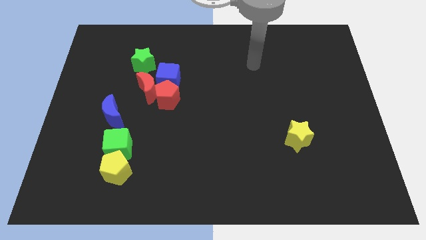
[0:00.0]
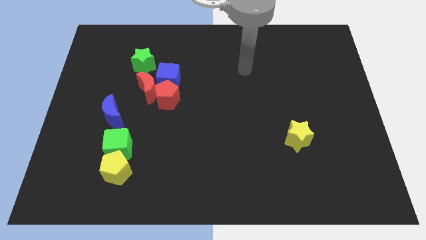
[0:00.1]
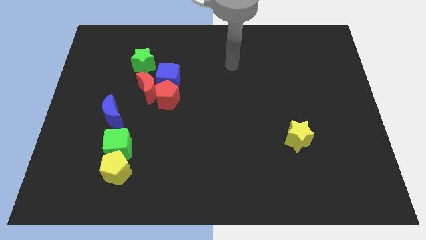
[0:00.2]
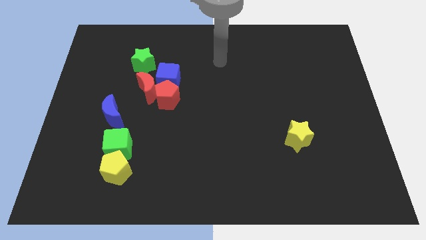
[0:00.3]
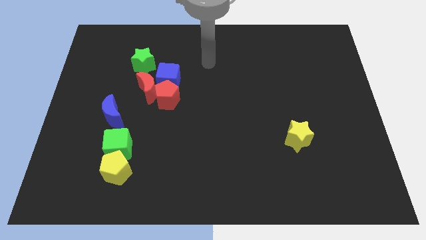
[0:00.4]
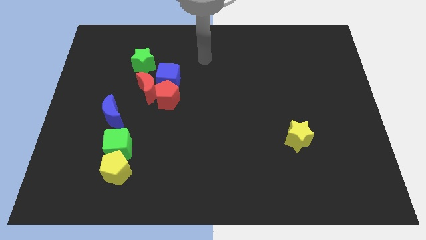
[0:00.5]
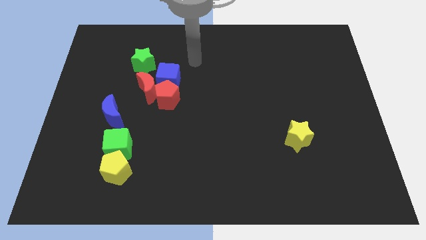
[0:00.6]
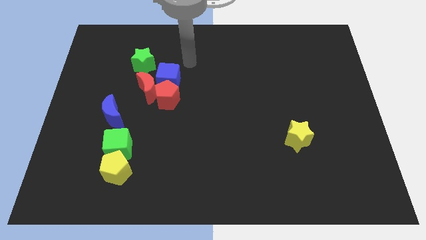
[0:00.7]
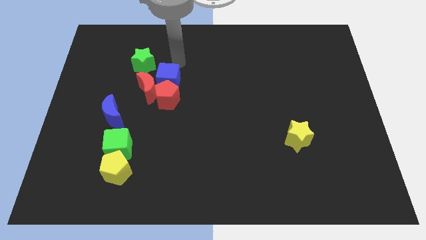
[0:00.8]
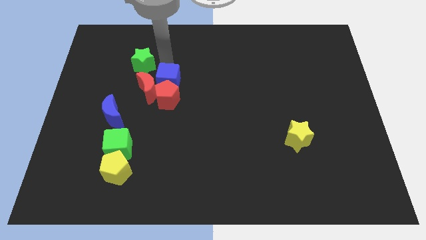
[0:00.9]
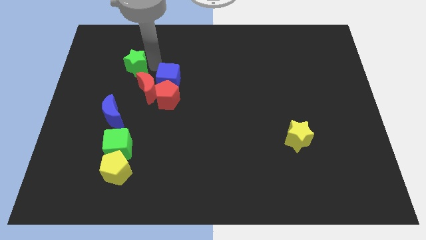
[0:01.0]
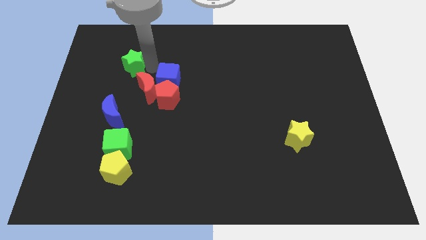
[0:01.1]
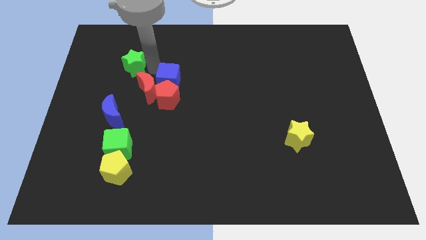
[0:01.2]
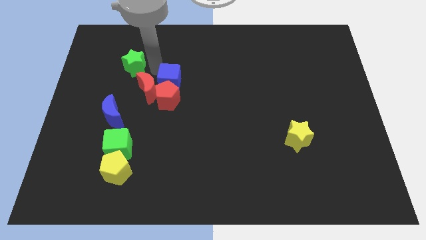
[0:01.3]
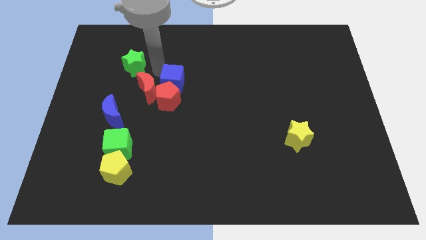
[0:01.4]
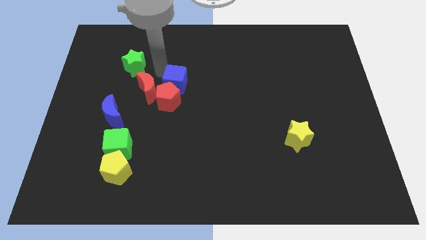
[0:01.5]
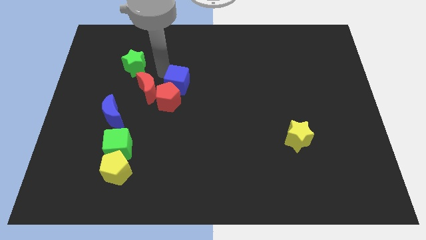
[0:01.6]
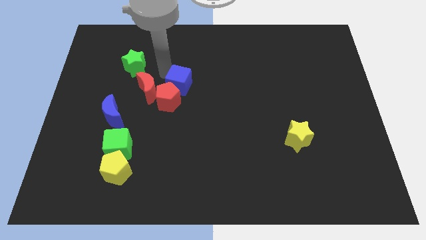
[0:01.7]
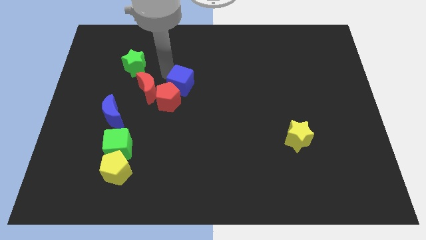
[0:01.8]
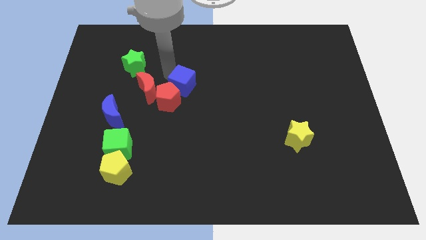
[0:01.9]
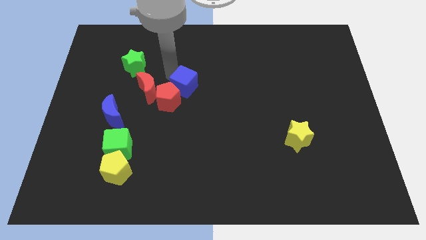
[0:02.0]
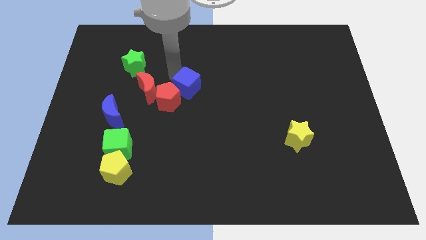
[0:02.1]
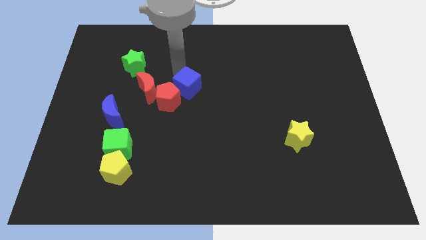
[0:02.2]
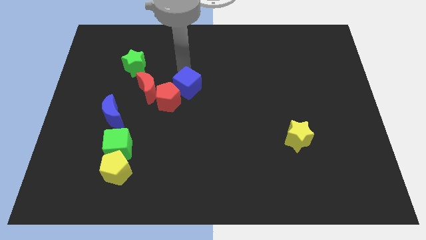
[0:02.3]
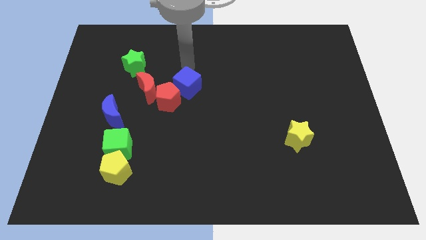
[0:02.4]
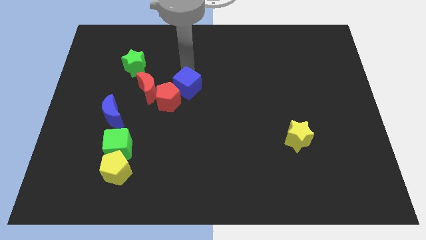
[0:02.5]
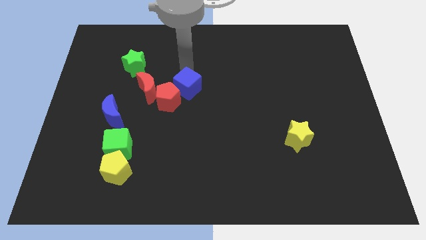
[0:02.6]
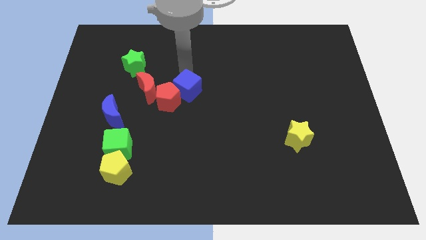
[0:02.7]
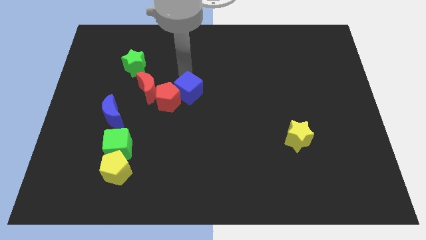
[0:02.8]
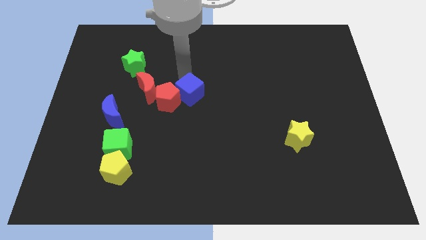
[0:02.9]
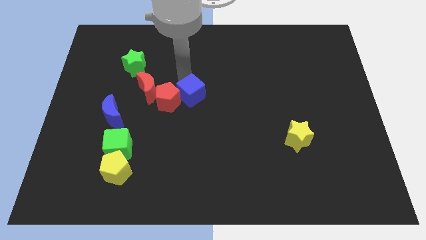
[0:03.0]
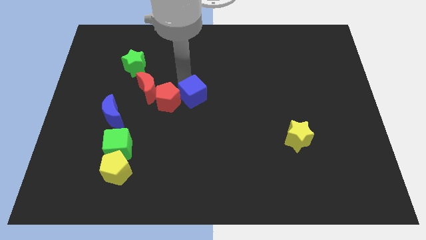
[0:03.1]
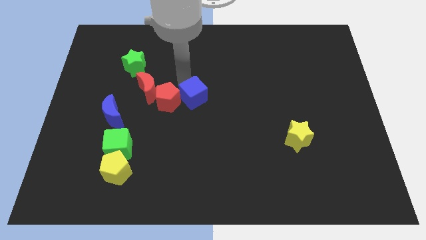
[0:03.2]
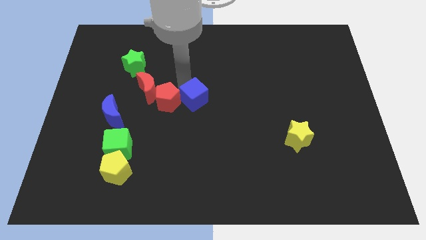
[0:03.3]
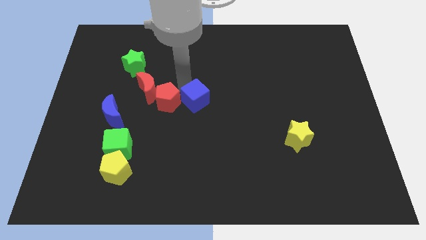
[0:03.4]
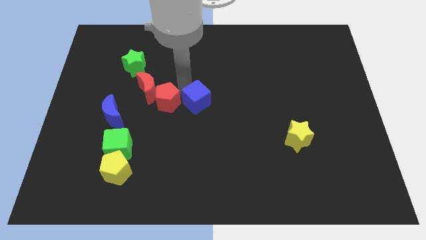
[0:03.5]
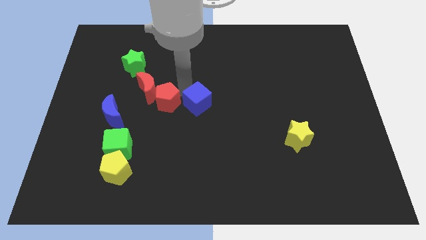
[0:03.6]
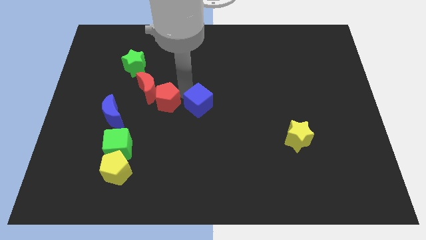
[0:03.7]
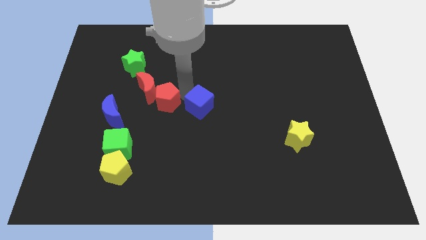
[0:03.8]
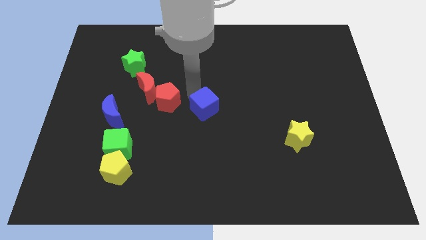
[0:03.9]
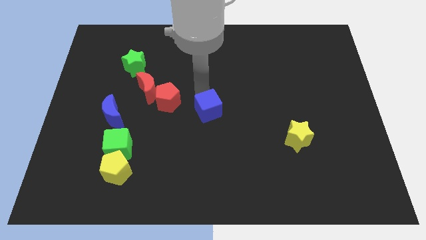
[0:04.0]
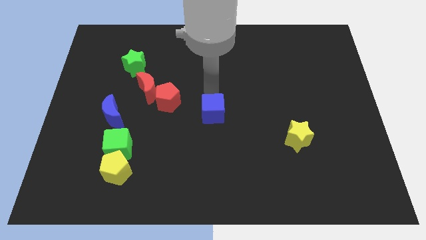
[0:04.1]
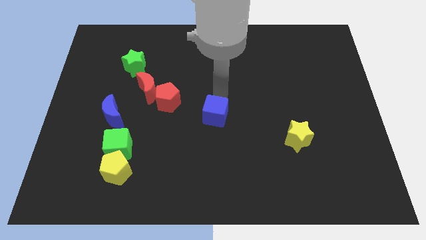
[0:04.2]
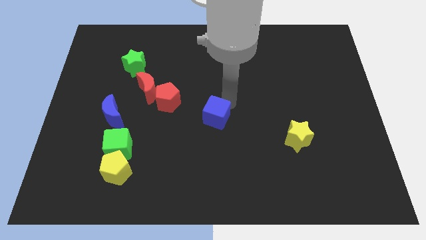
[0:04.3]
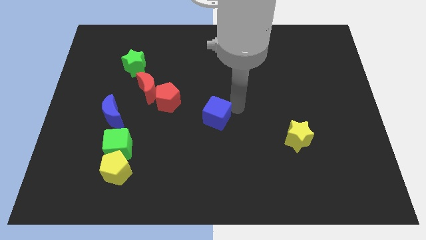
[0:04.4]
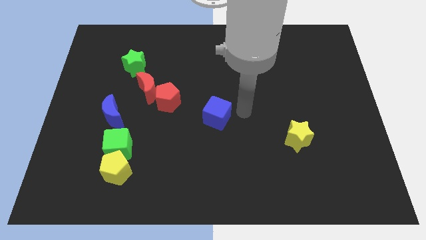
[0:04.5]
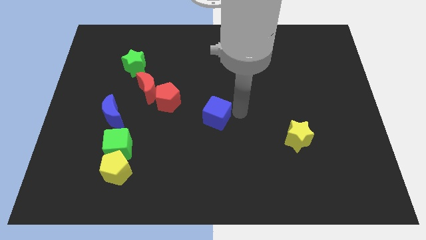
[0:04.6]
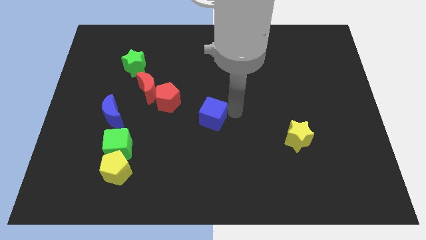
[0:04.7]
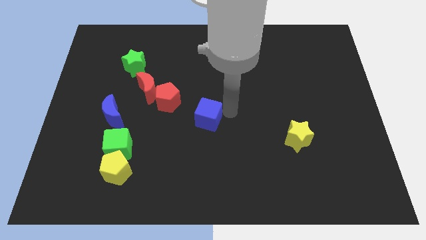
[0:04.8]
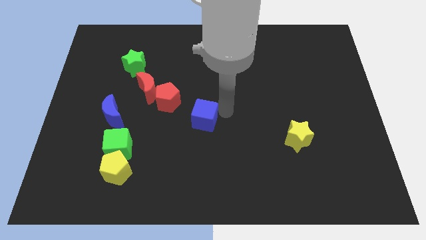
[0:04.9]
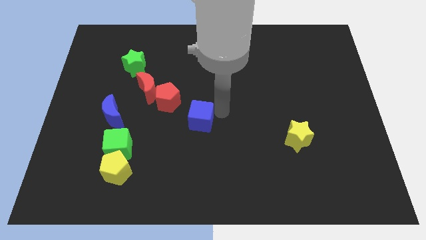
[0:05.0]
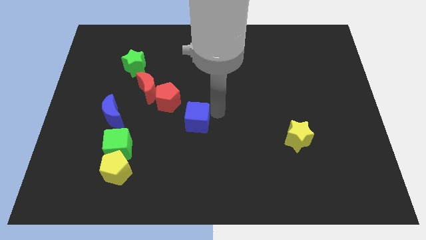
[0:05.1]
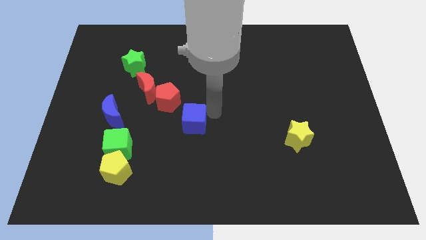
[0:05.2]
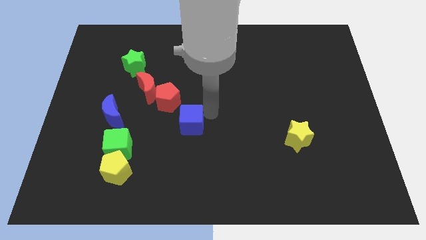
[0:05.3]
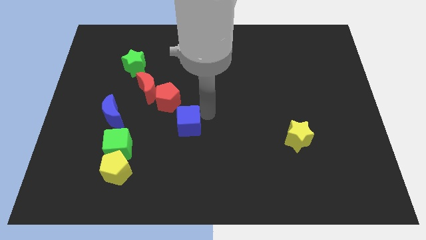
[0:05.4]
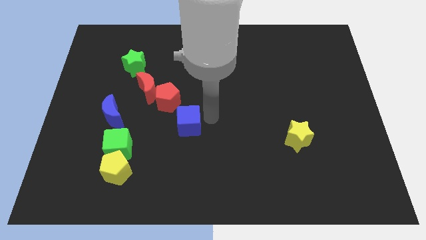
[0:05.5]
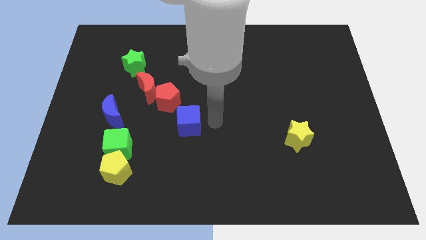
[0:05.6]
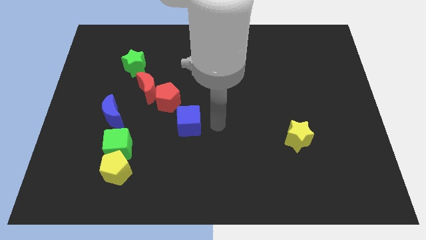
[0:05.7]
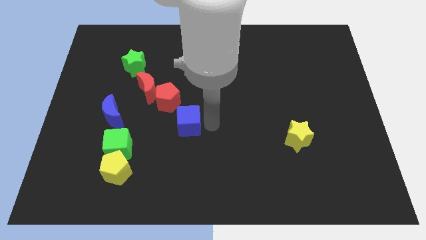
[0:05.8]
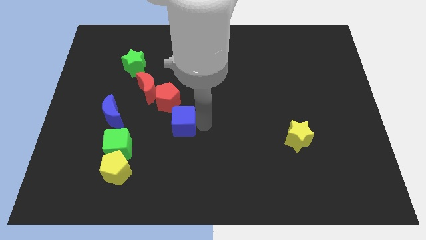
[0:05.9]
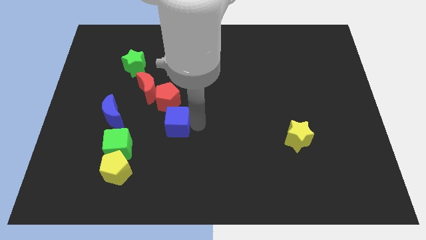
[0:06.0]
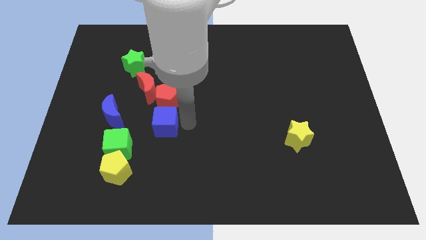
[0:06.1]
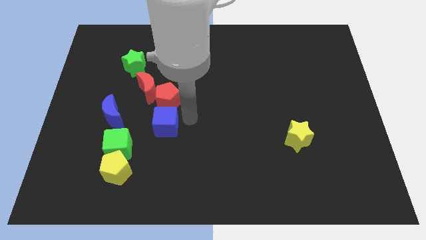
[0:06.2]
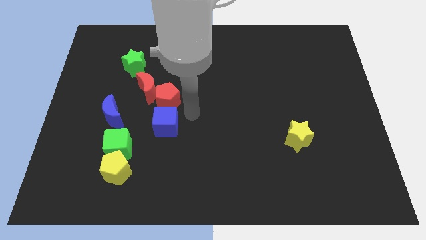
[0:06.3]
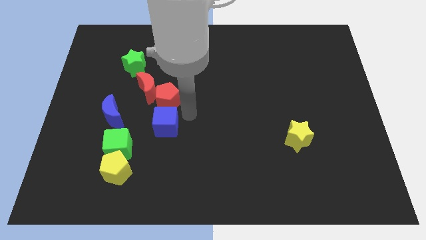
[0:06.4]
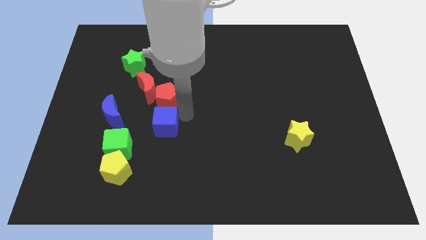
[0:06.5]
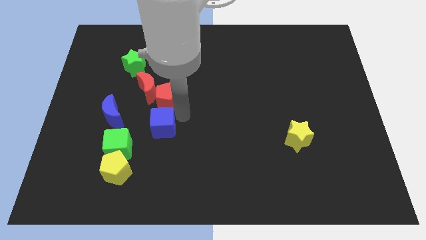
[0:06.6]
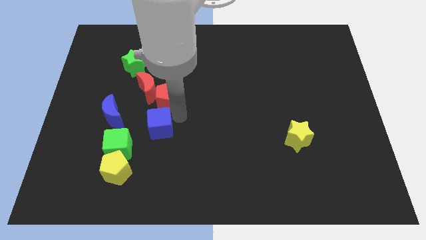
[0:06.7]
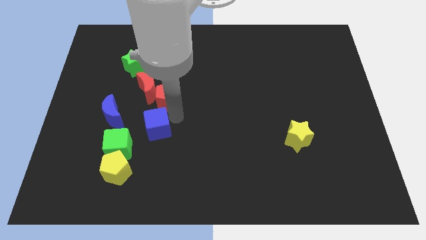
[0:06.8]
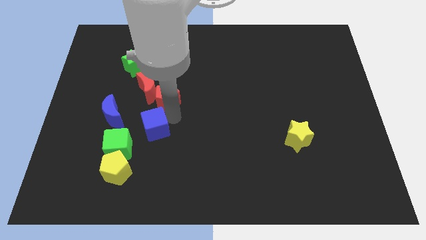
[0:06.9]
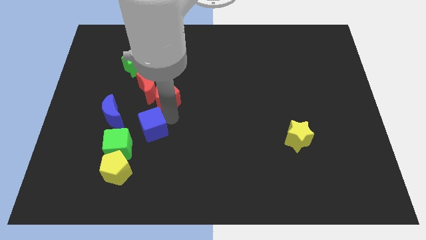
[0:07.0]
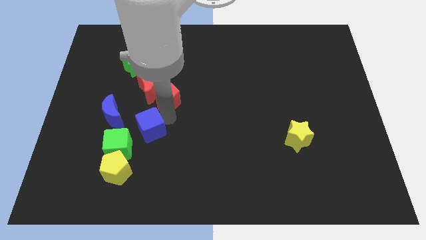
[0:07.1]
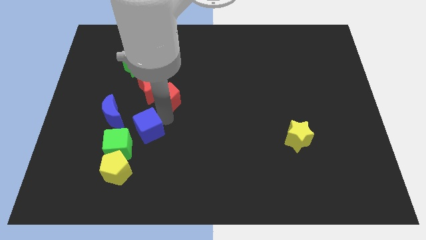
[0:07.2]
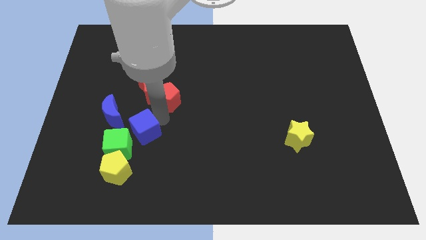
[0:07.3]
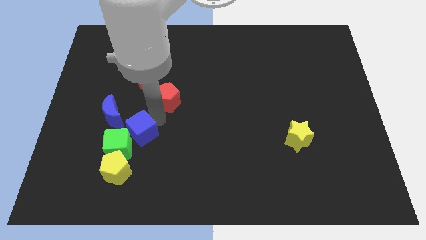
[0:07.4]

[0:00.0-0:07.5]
push the blue cube towards the green cube
